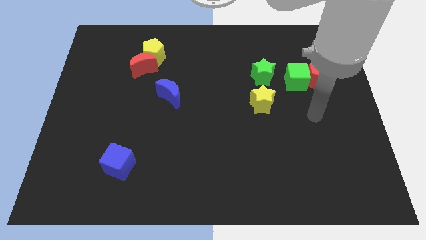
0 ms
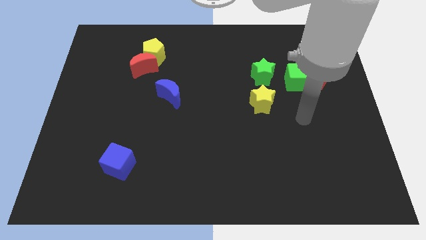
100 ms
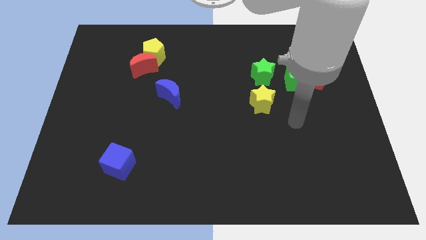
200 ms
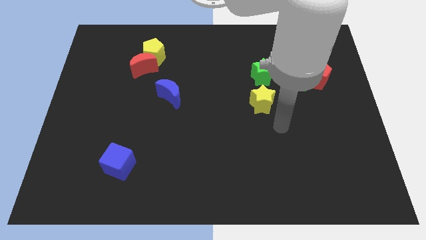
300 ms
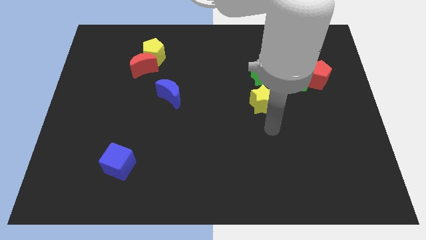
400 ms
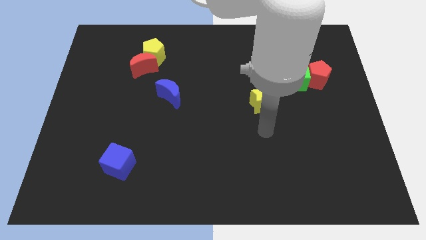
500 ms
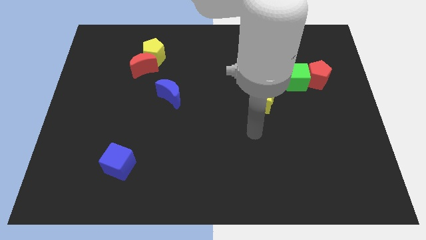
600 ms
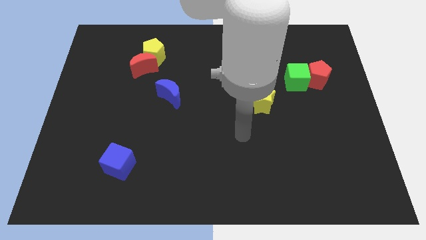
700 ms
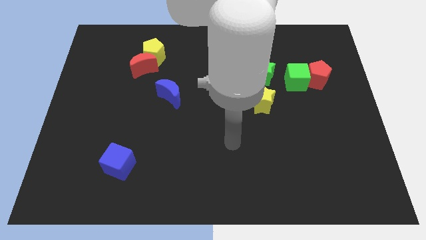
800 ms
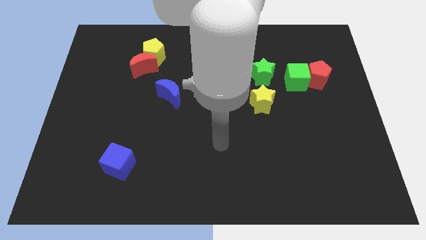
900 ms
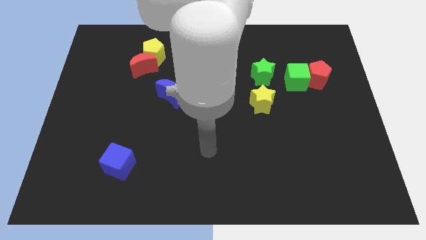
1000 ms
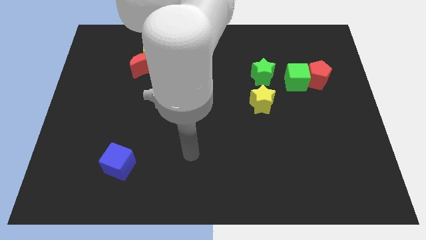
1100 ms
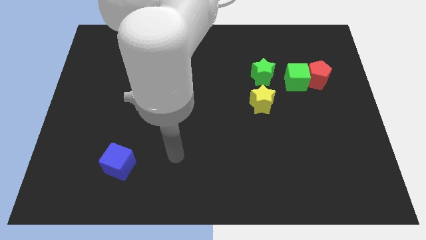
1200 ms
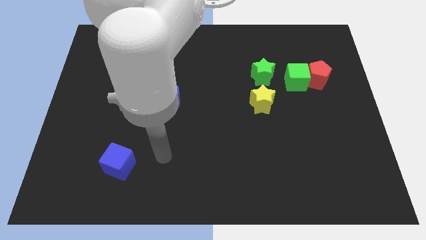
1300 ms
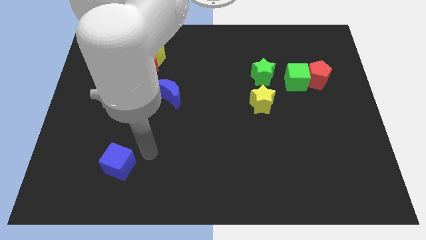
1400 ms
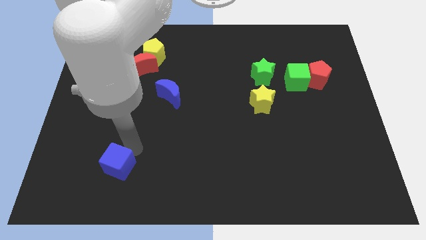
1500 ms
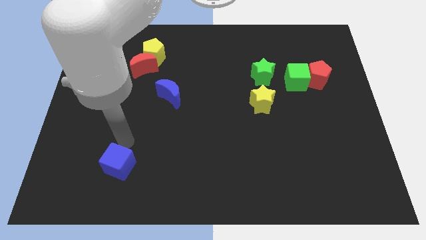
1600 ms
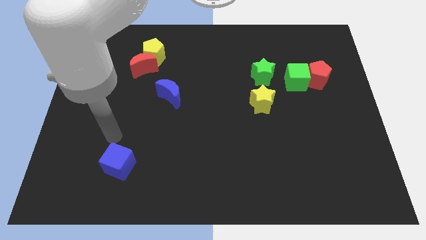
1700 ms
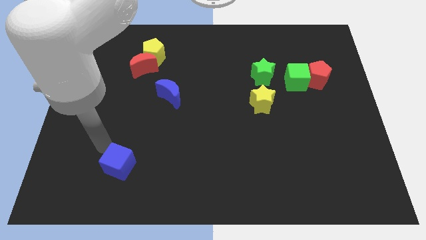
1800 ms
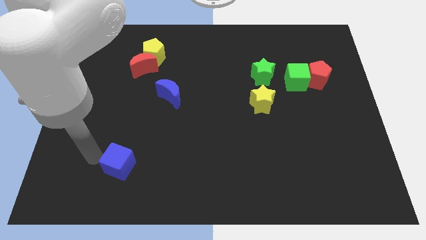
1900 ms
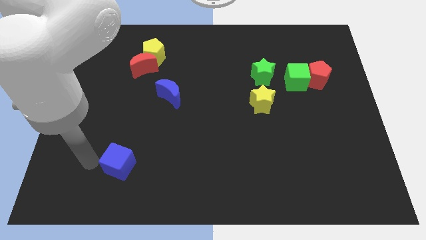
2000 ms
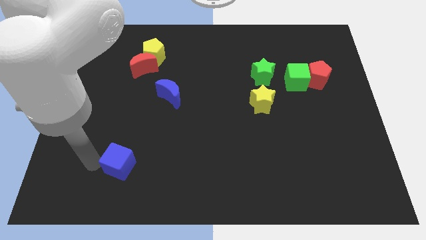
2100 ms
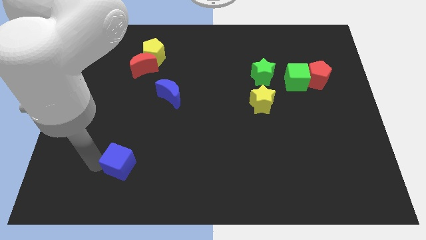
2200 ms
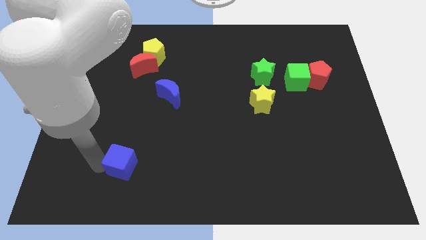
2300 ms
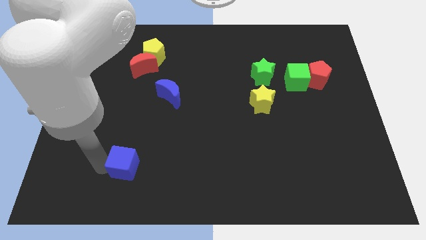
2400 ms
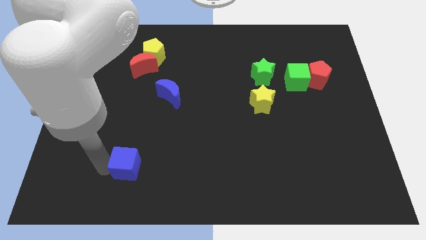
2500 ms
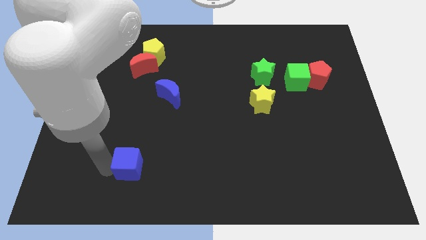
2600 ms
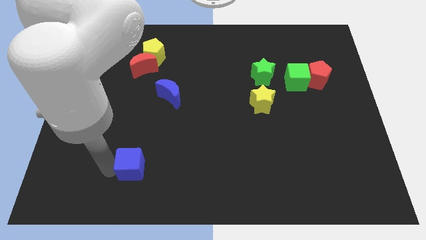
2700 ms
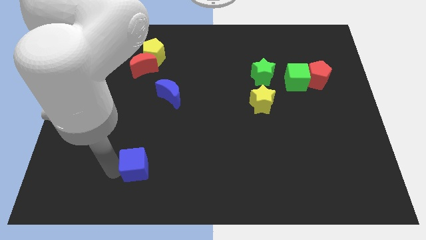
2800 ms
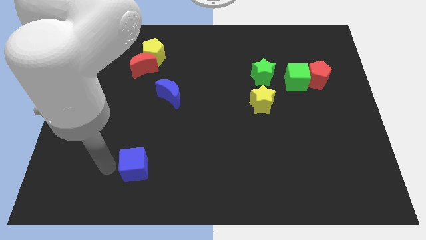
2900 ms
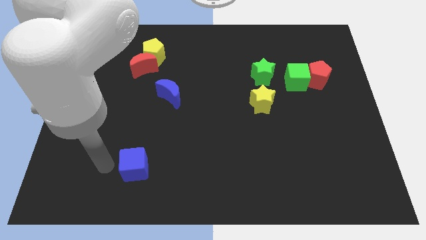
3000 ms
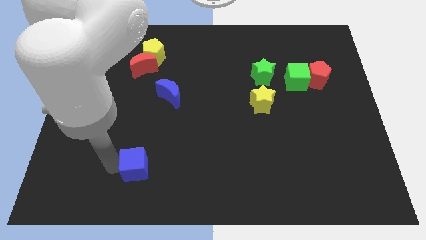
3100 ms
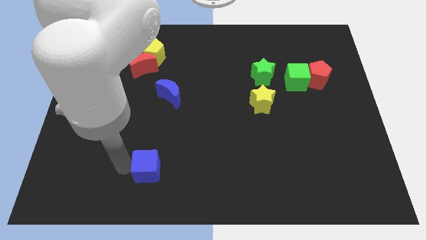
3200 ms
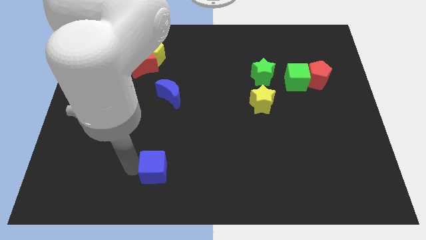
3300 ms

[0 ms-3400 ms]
move the blue cube right slightly

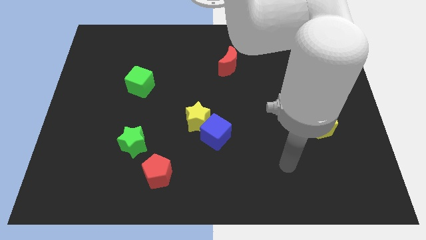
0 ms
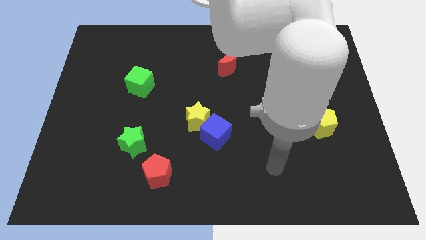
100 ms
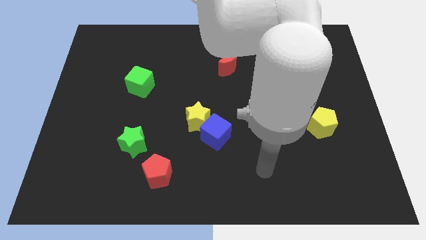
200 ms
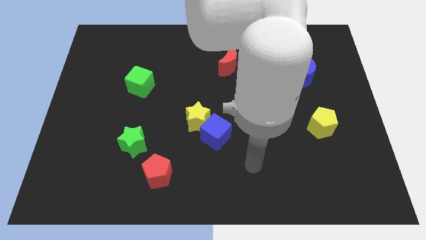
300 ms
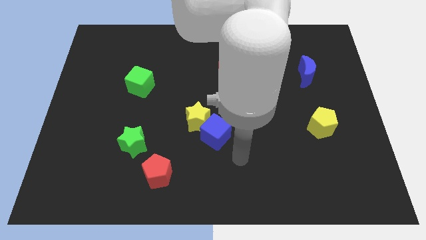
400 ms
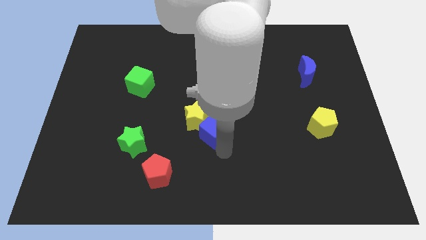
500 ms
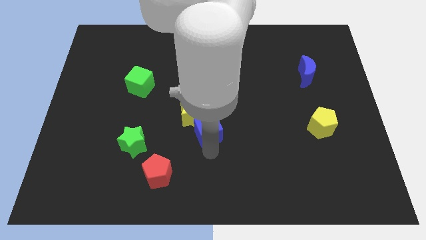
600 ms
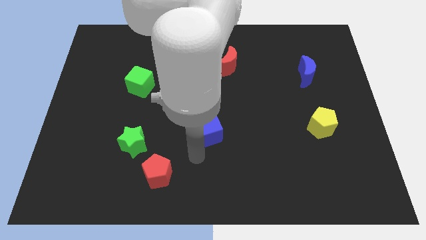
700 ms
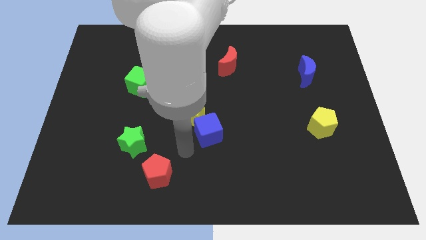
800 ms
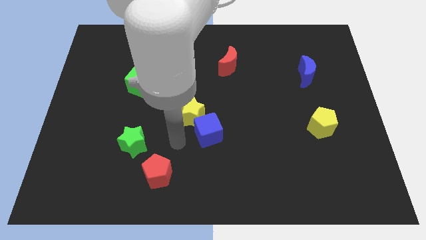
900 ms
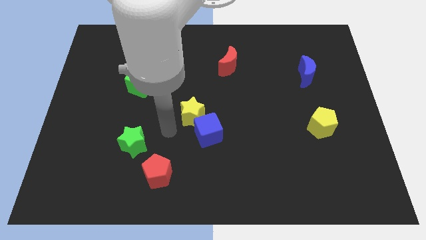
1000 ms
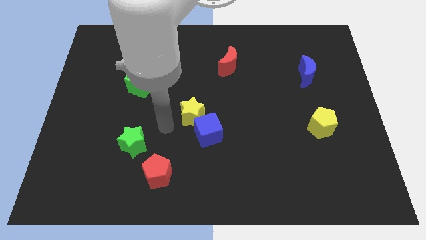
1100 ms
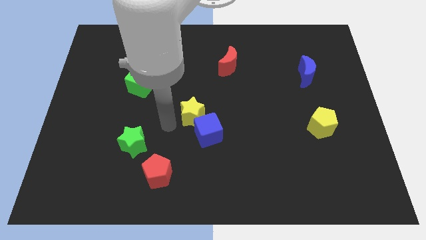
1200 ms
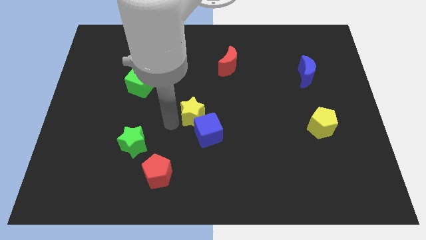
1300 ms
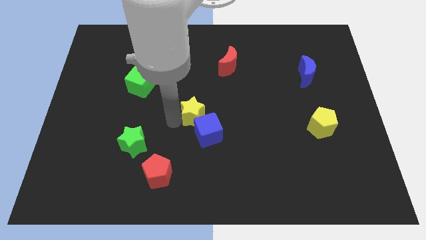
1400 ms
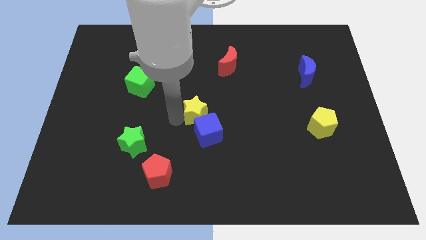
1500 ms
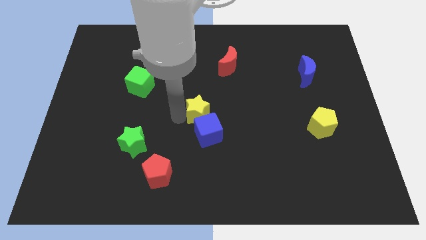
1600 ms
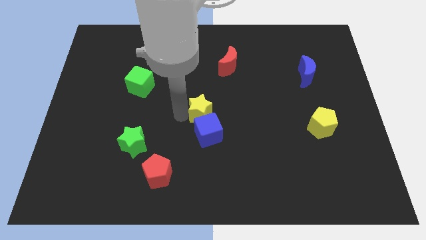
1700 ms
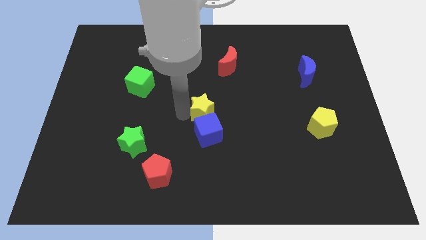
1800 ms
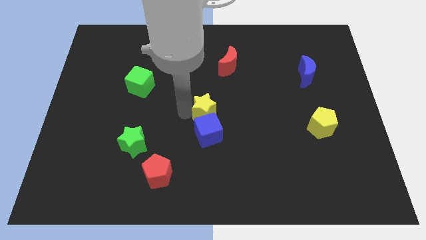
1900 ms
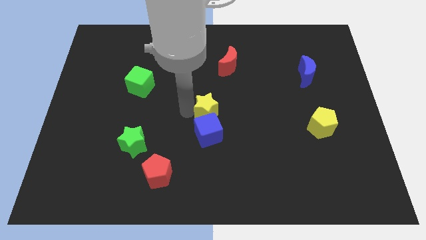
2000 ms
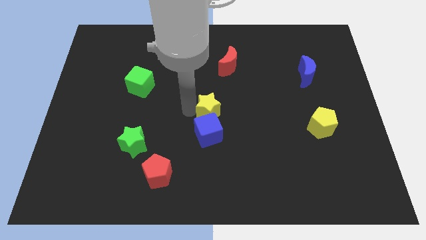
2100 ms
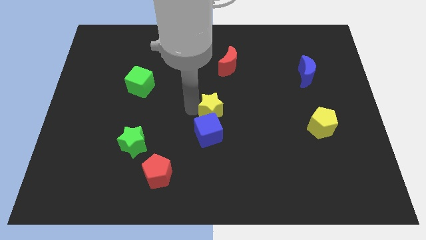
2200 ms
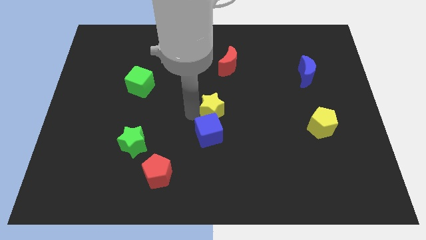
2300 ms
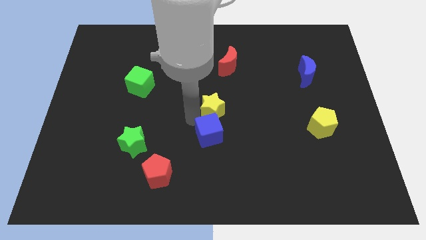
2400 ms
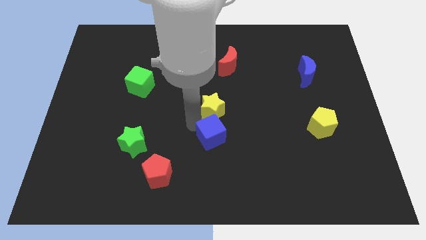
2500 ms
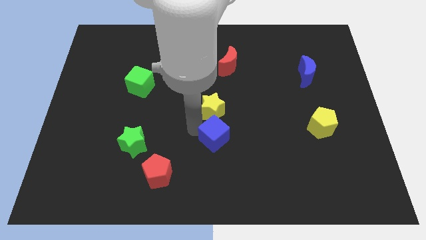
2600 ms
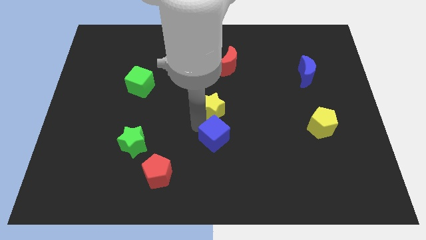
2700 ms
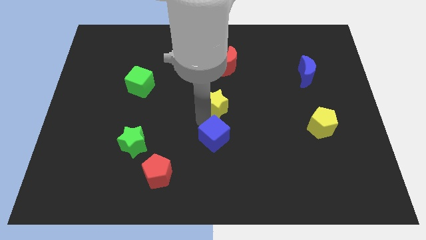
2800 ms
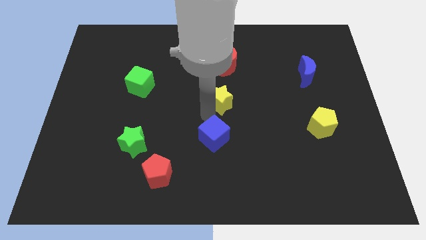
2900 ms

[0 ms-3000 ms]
slightly move the yellow star upwards and right diagonally

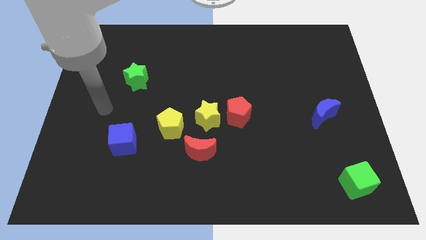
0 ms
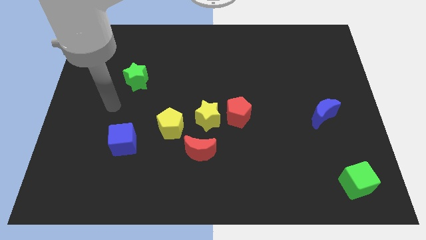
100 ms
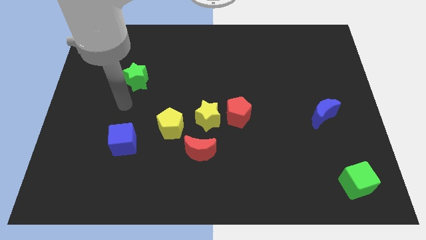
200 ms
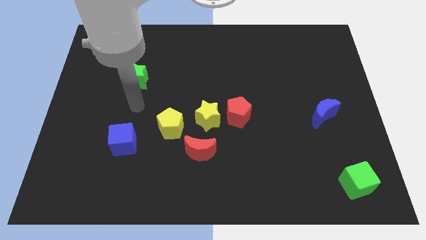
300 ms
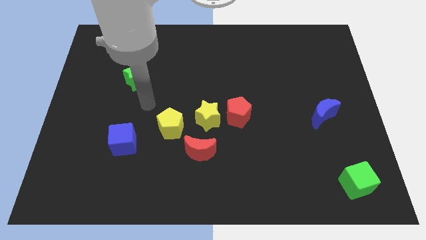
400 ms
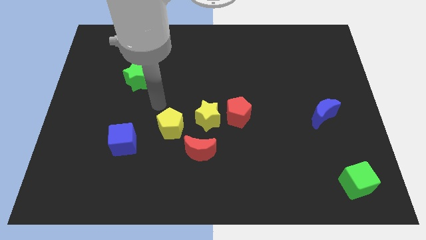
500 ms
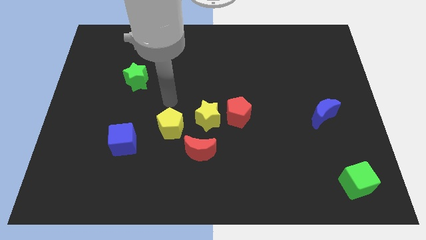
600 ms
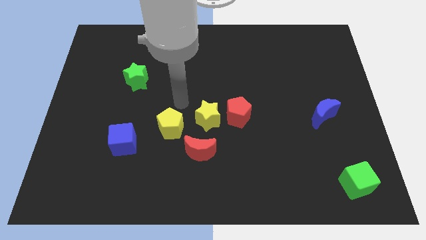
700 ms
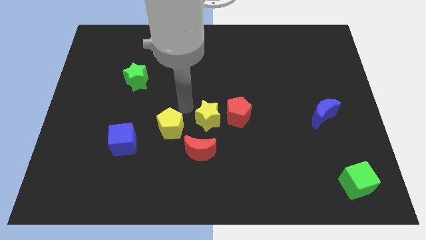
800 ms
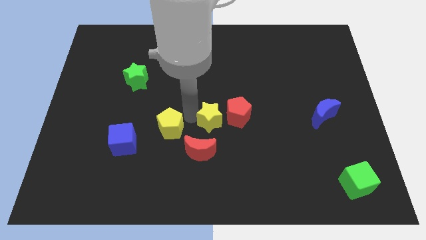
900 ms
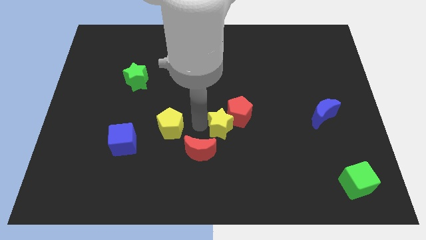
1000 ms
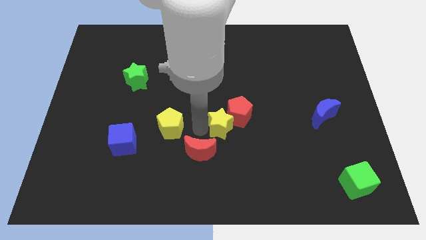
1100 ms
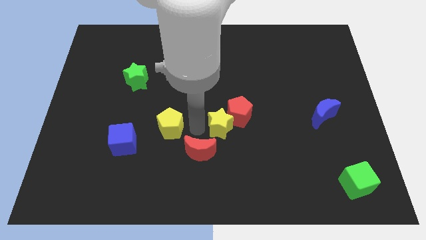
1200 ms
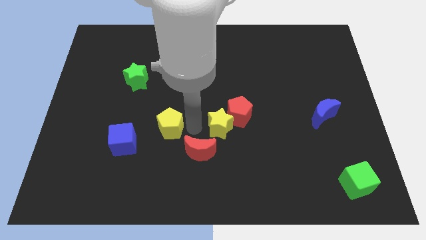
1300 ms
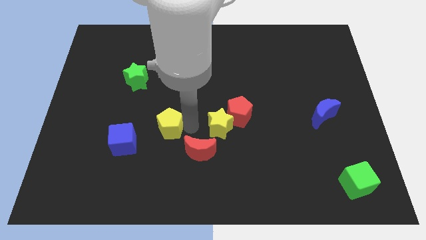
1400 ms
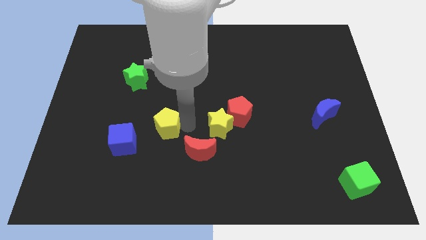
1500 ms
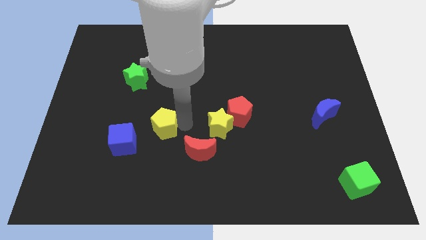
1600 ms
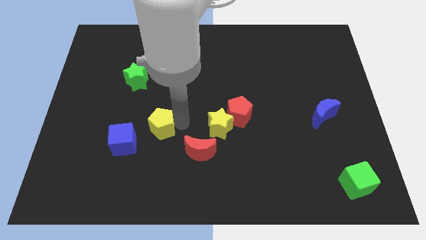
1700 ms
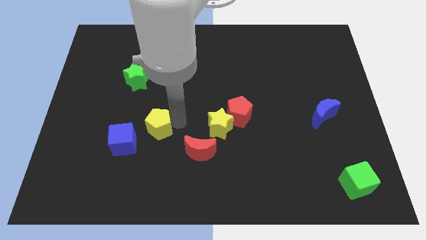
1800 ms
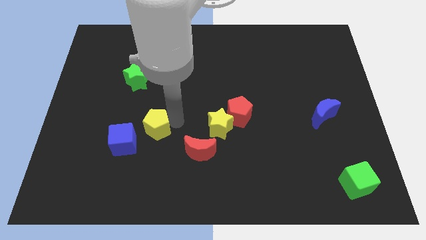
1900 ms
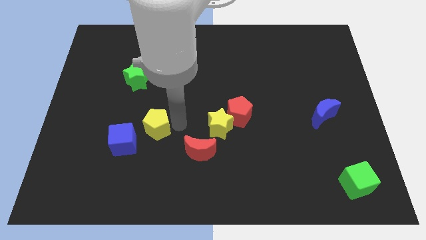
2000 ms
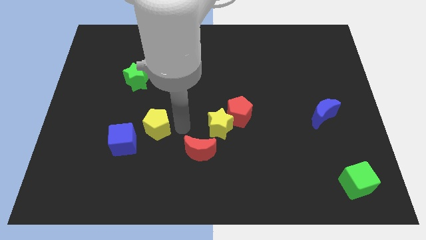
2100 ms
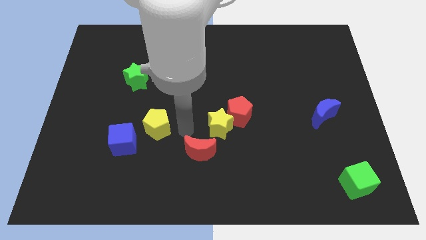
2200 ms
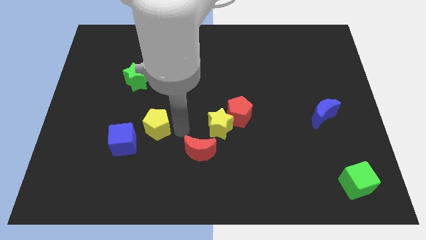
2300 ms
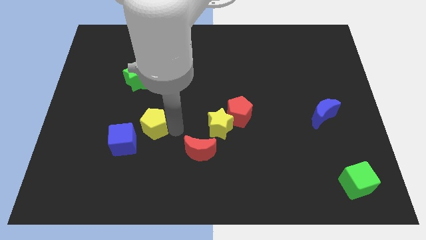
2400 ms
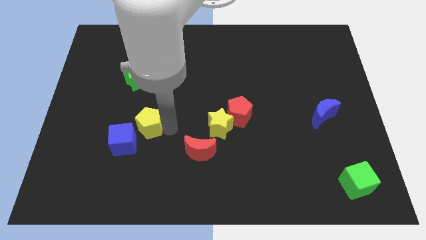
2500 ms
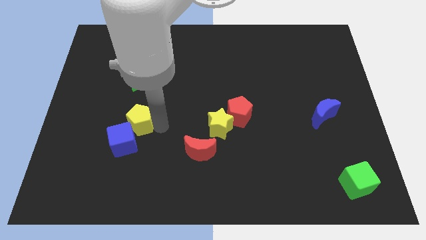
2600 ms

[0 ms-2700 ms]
slightly slide the yellow pentagon to the left
